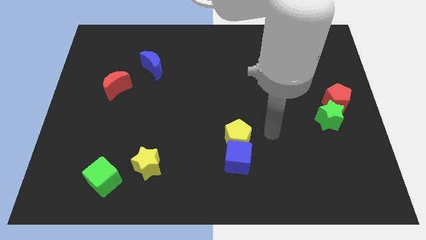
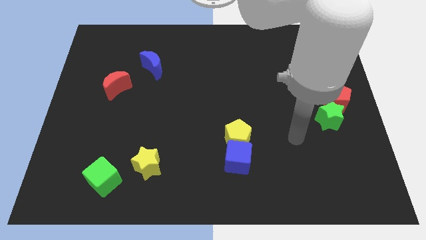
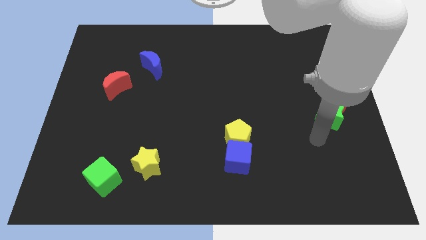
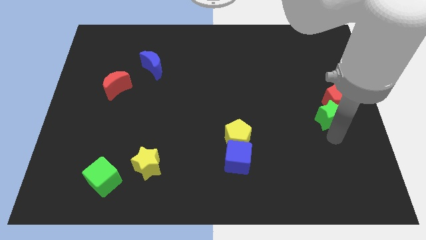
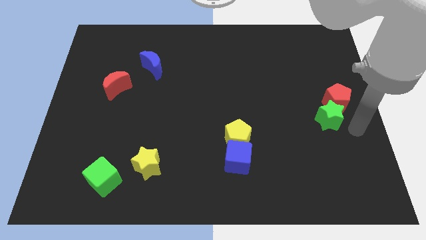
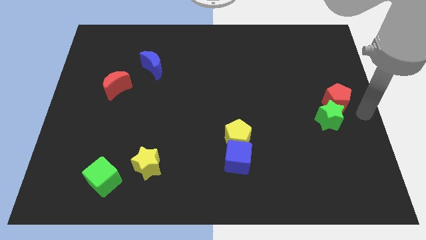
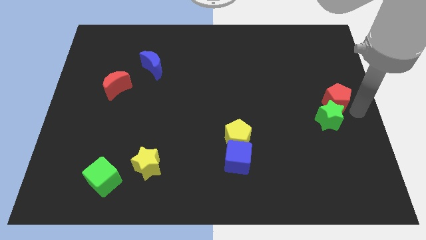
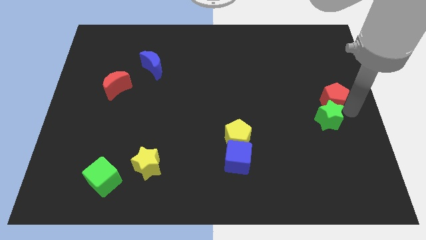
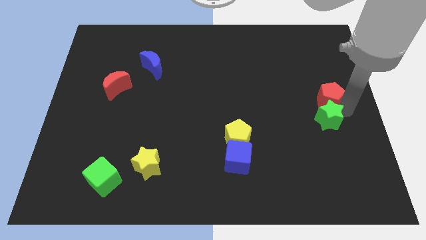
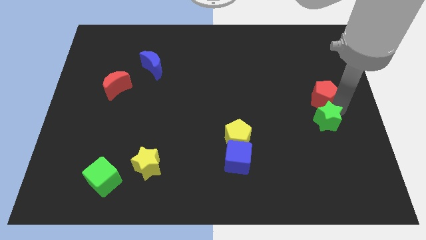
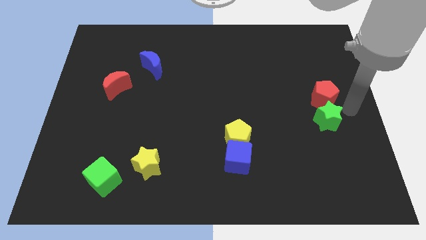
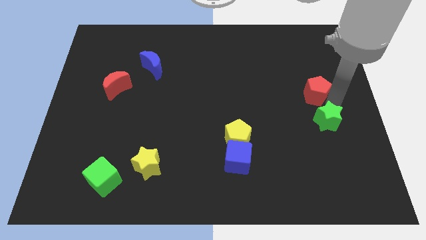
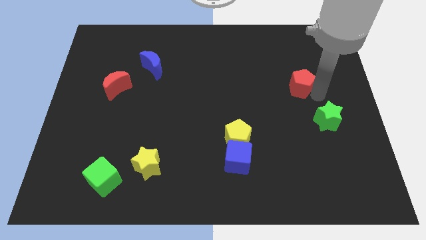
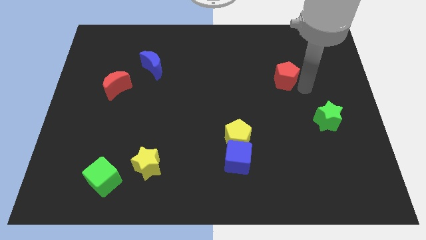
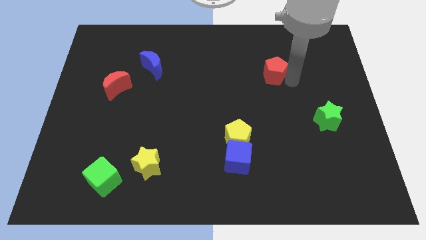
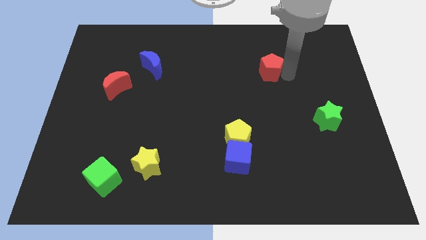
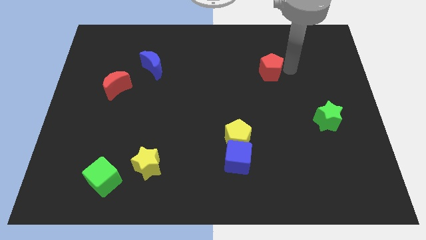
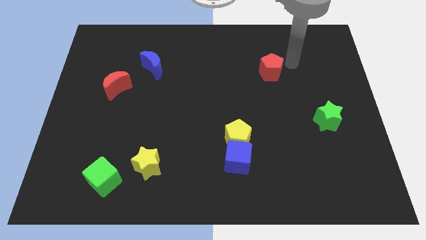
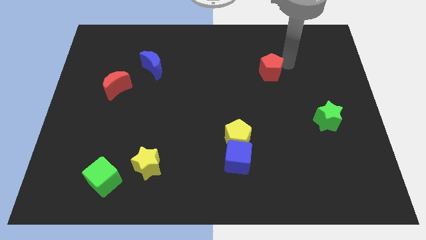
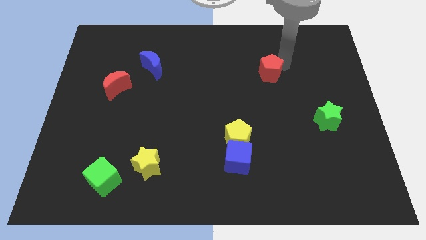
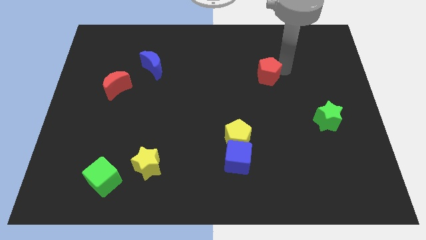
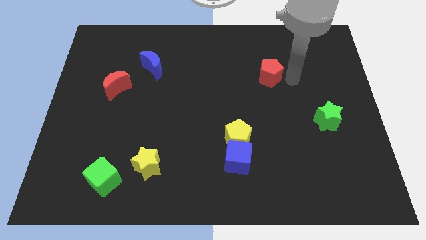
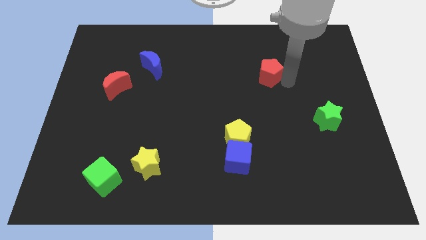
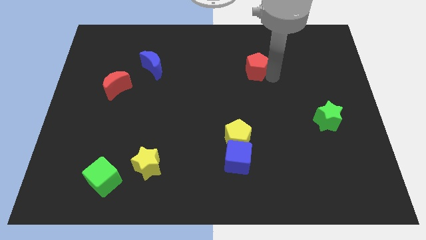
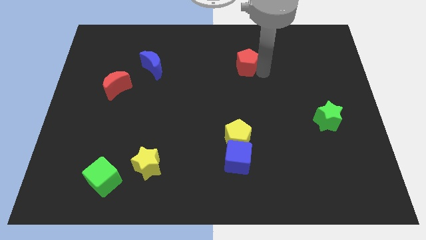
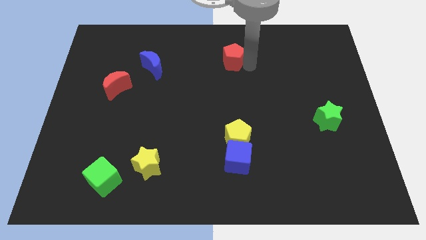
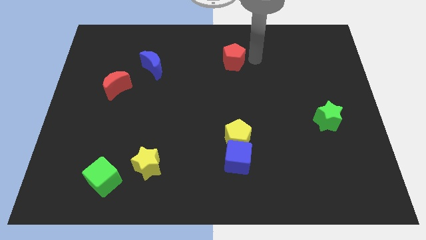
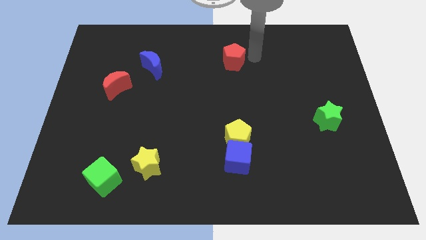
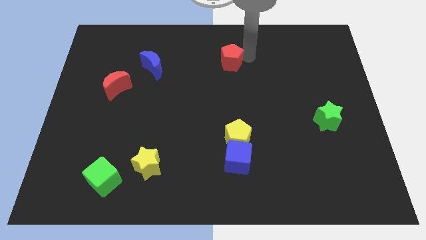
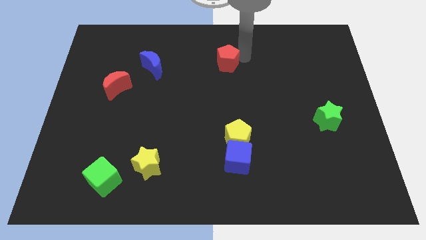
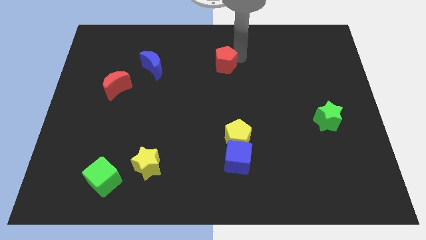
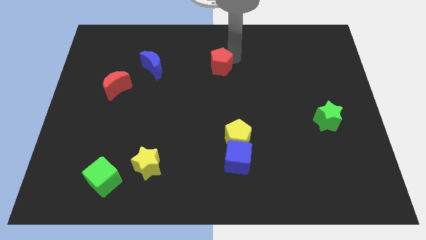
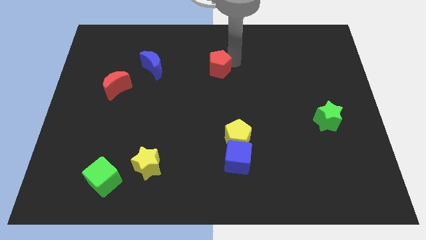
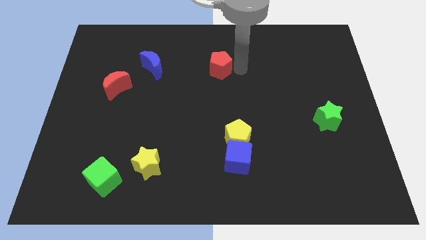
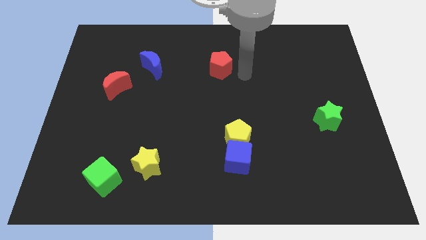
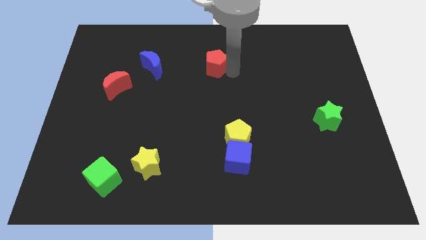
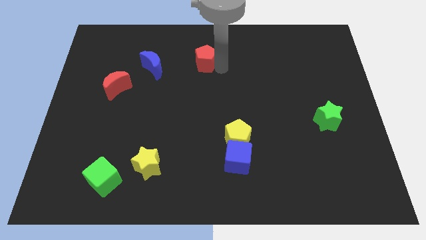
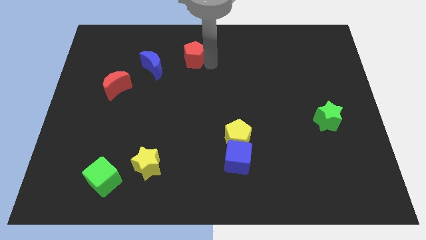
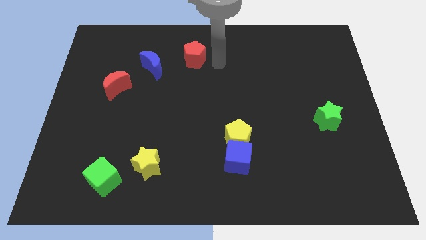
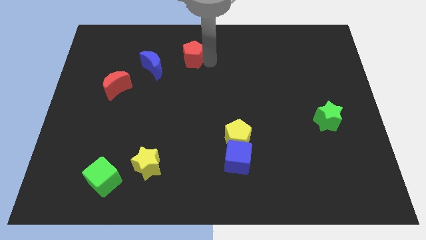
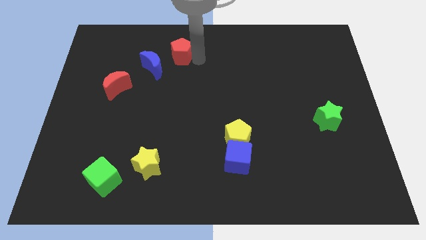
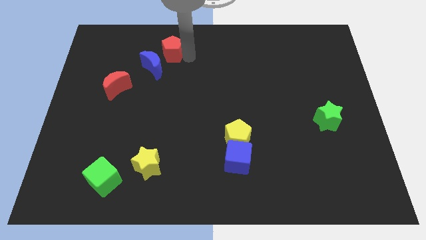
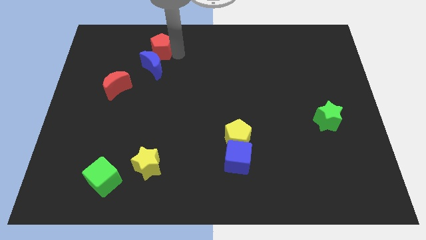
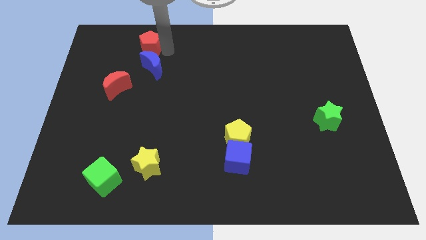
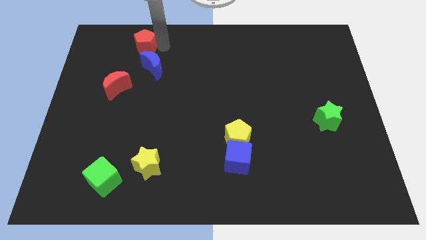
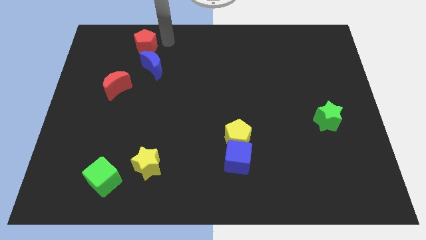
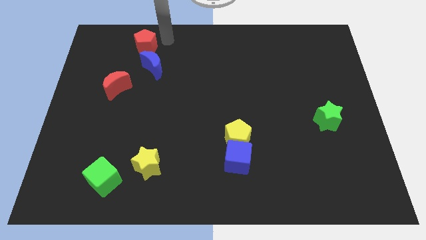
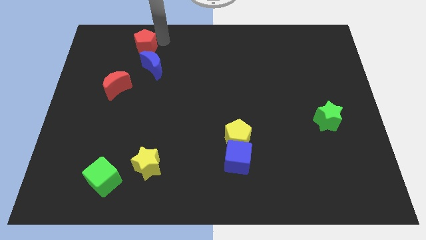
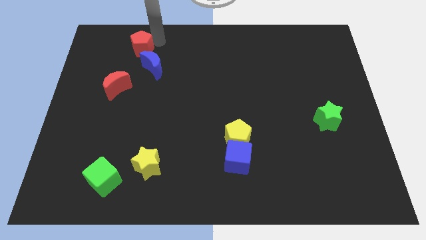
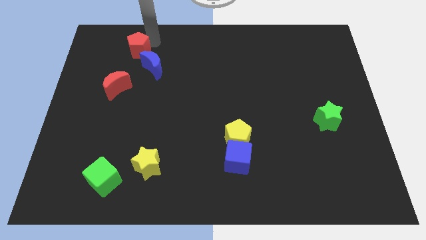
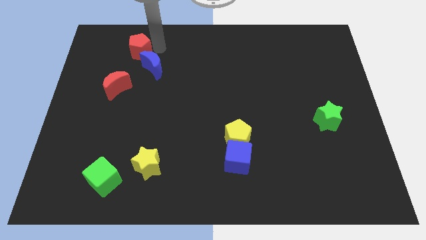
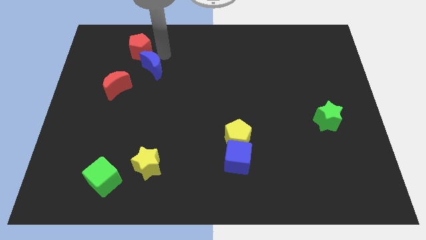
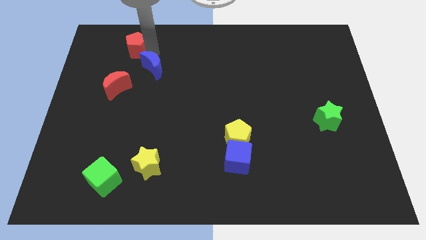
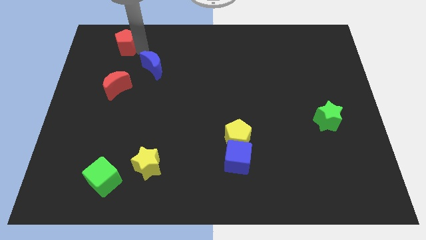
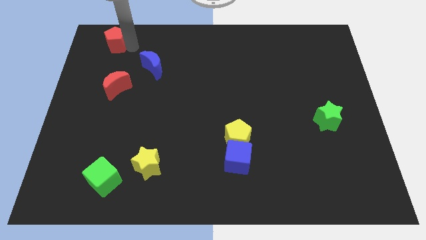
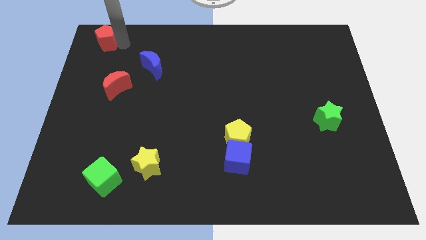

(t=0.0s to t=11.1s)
move the red pentagon to the top left corner
